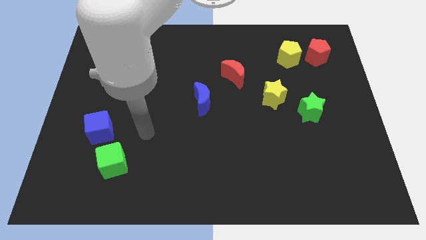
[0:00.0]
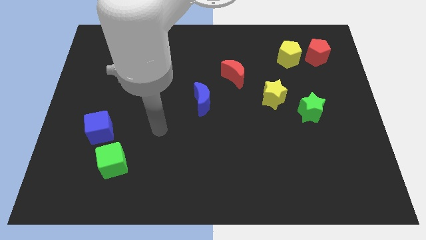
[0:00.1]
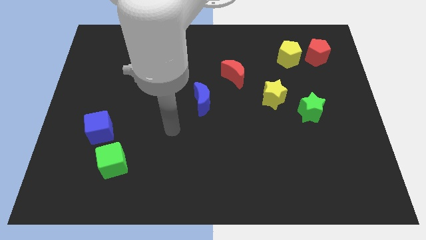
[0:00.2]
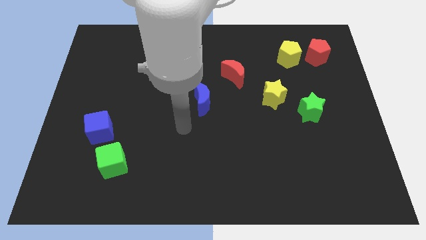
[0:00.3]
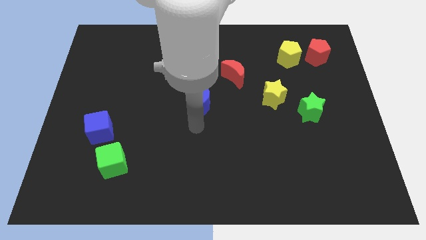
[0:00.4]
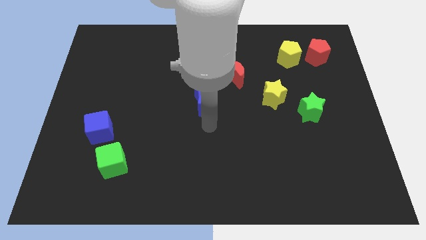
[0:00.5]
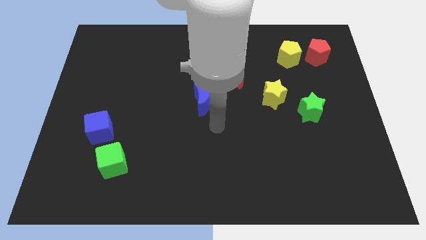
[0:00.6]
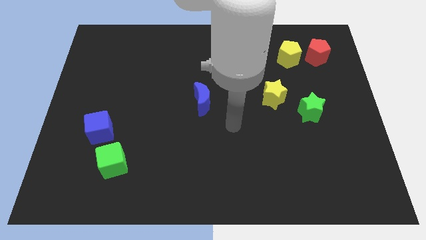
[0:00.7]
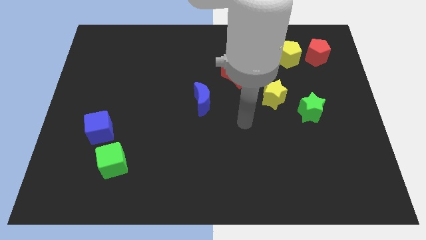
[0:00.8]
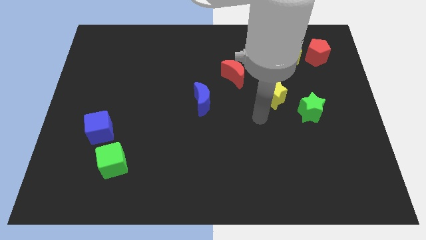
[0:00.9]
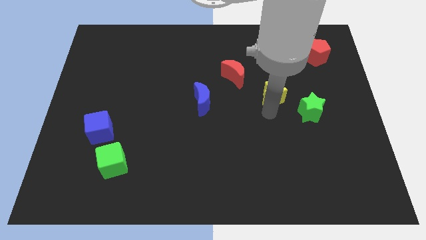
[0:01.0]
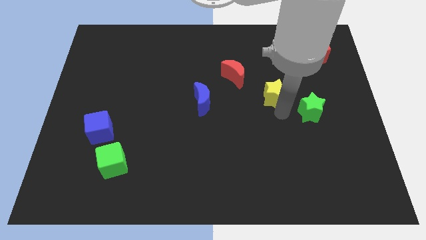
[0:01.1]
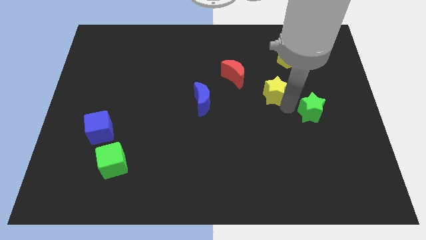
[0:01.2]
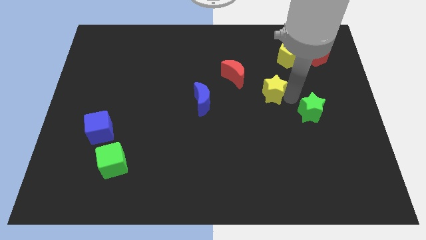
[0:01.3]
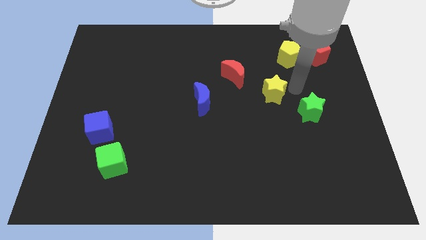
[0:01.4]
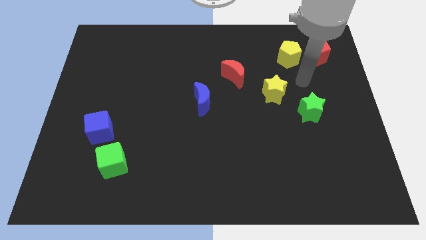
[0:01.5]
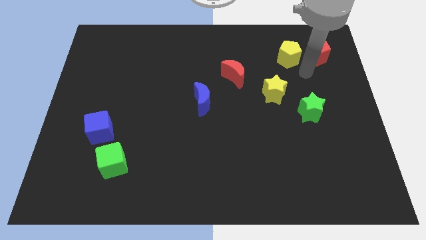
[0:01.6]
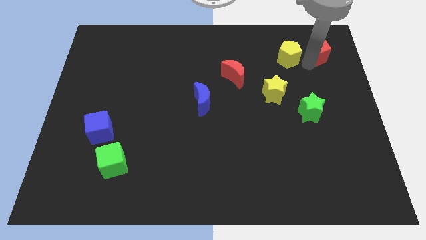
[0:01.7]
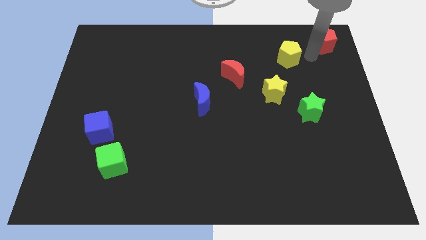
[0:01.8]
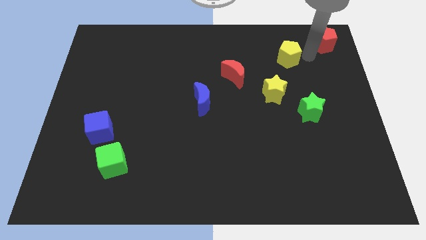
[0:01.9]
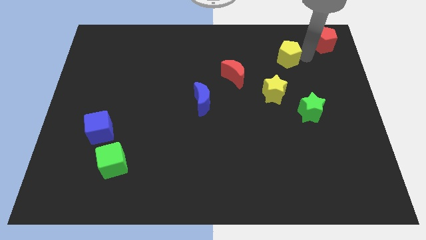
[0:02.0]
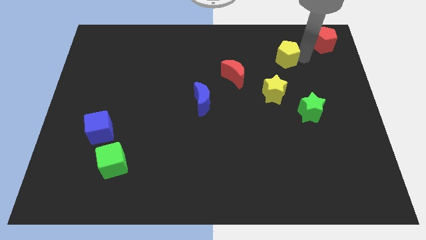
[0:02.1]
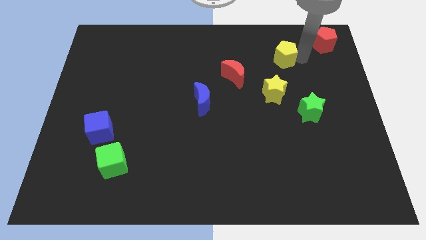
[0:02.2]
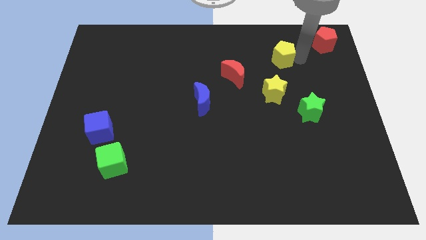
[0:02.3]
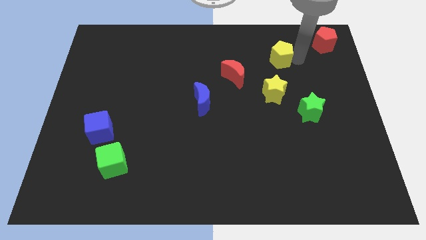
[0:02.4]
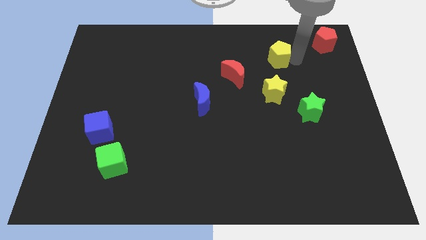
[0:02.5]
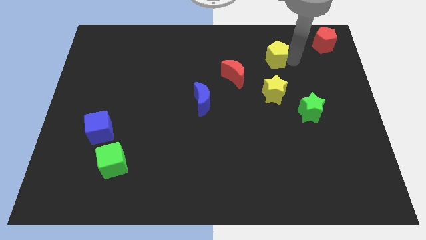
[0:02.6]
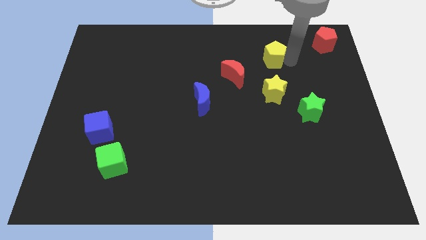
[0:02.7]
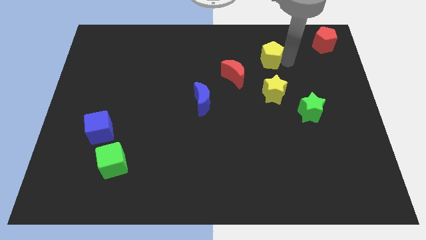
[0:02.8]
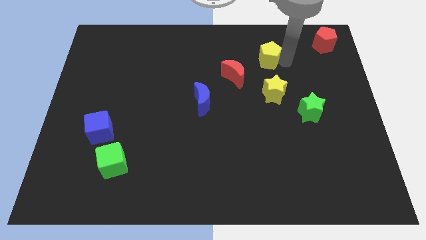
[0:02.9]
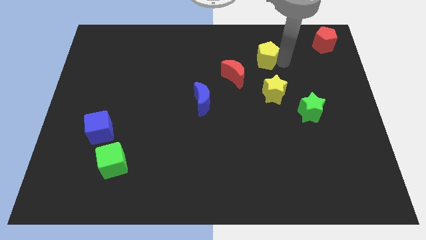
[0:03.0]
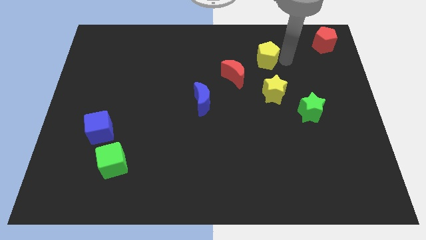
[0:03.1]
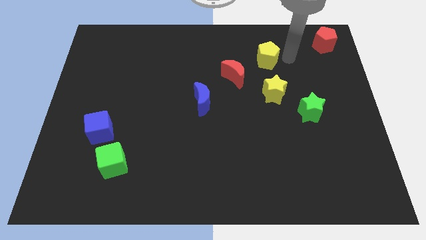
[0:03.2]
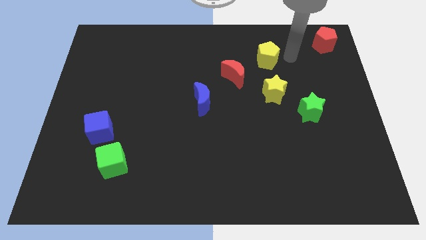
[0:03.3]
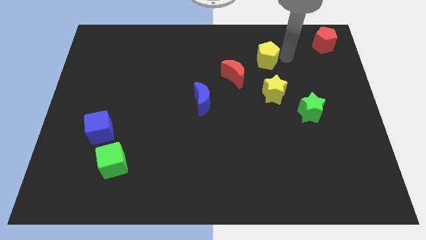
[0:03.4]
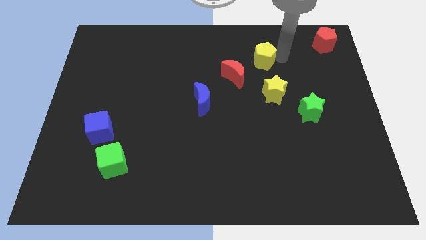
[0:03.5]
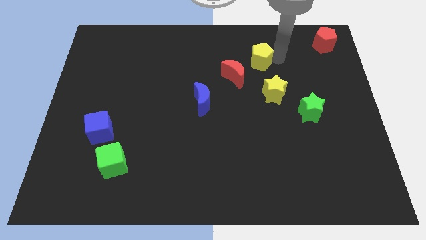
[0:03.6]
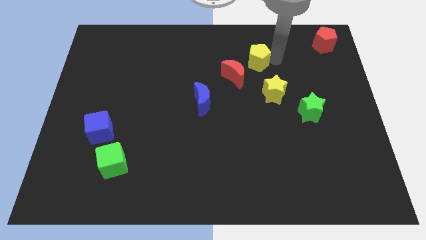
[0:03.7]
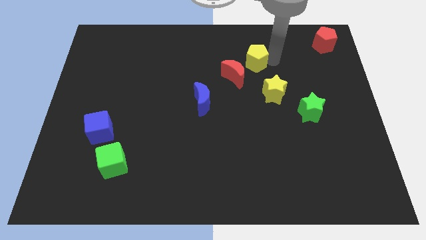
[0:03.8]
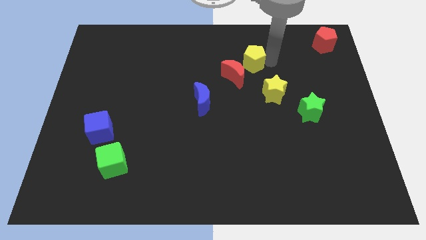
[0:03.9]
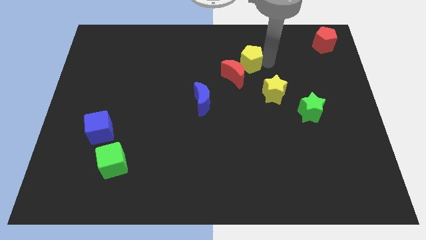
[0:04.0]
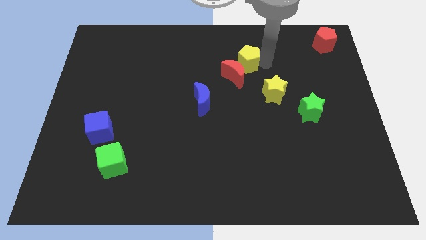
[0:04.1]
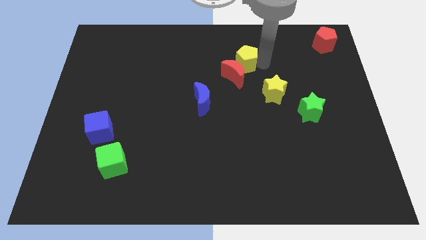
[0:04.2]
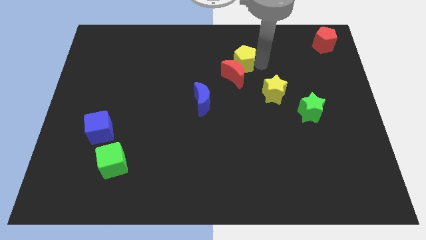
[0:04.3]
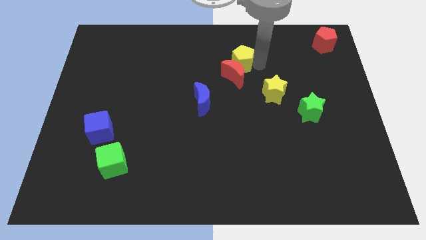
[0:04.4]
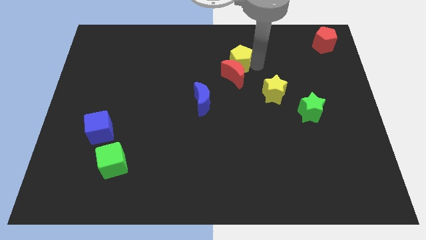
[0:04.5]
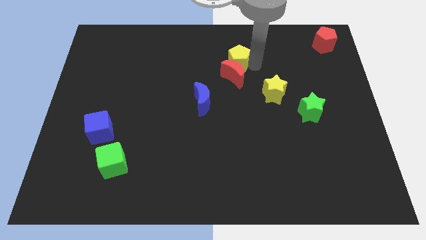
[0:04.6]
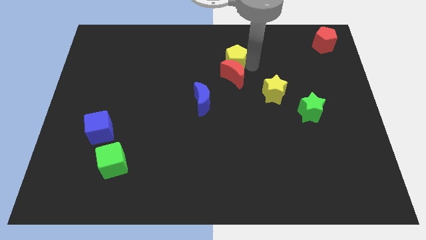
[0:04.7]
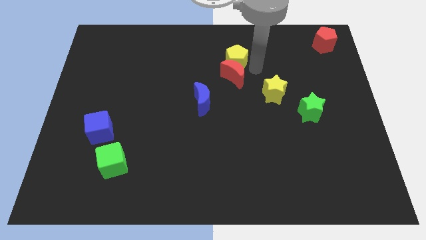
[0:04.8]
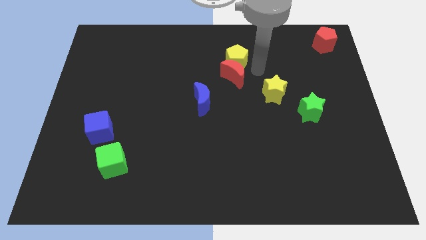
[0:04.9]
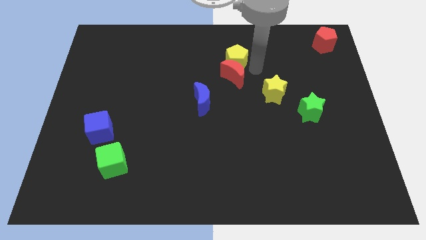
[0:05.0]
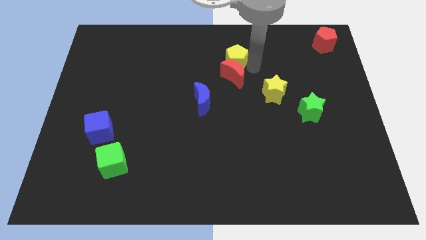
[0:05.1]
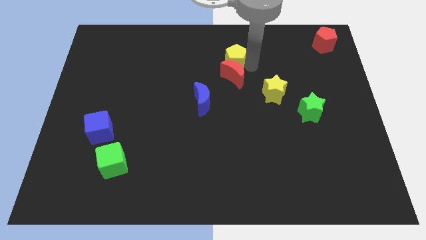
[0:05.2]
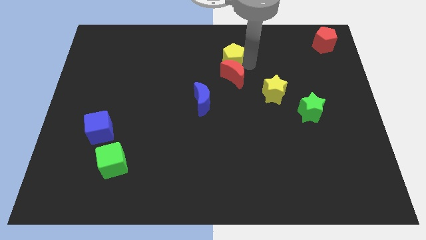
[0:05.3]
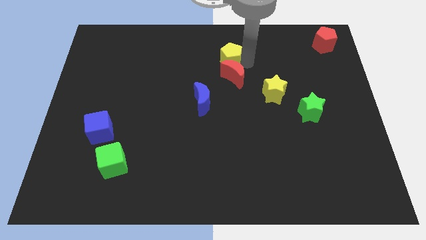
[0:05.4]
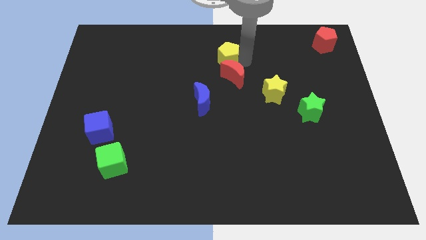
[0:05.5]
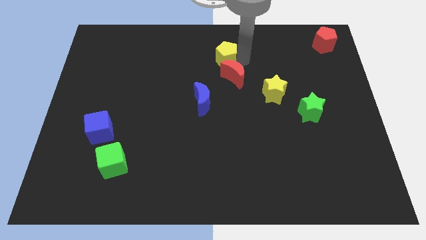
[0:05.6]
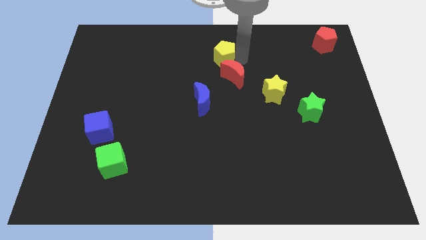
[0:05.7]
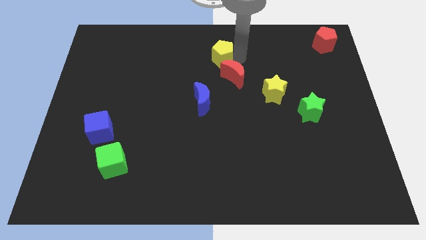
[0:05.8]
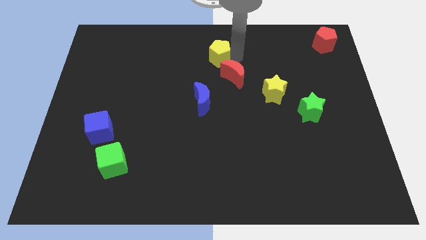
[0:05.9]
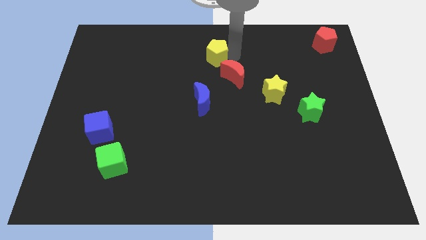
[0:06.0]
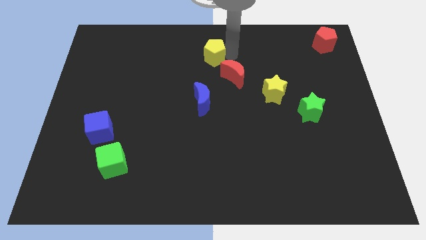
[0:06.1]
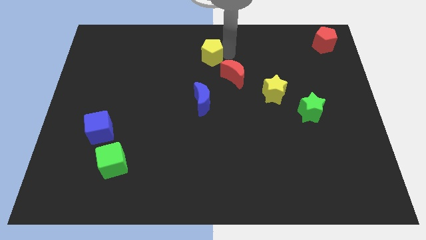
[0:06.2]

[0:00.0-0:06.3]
move the yellow pentagon left

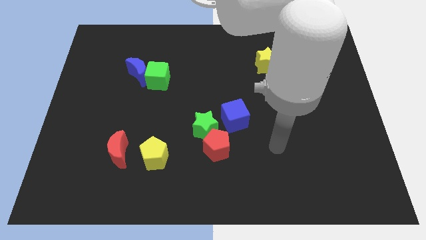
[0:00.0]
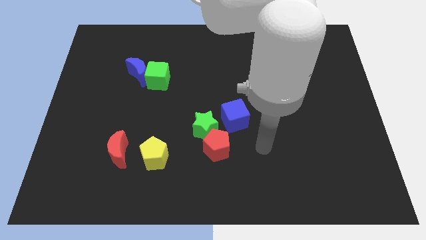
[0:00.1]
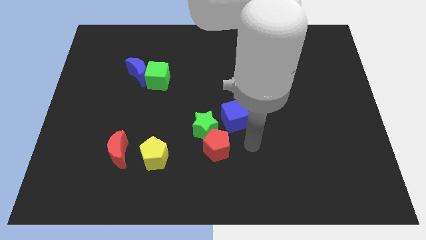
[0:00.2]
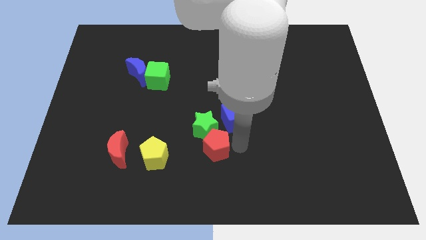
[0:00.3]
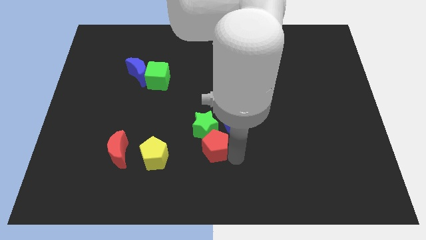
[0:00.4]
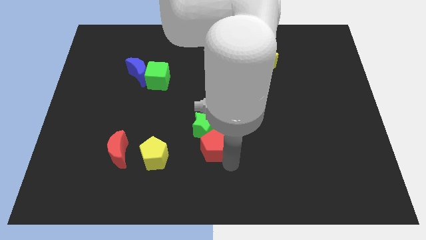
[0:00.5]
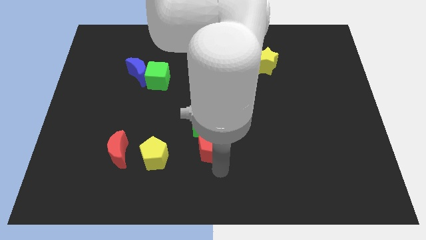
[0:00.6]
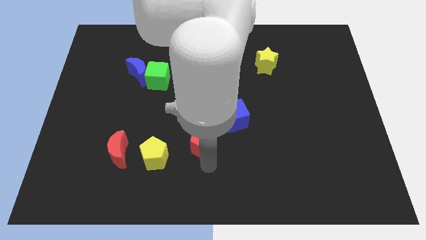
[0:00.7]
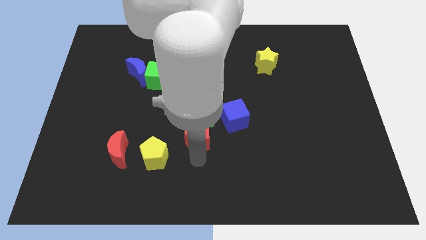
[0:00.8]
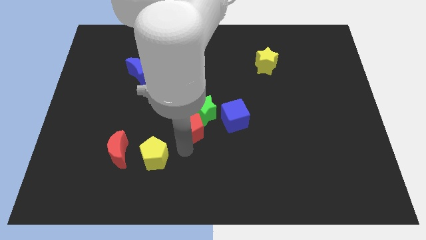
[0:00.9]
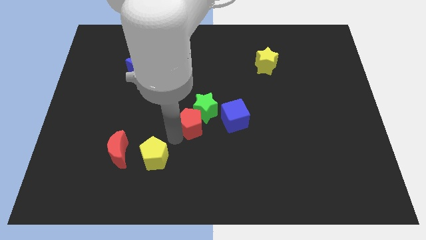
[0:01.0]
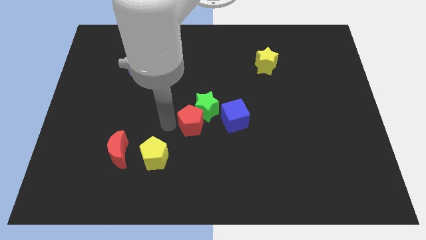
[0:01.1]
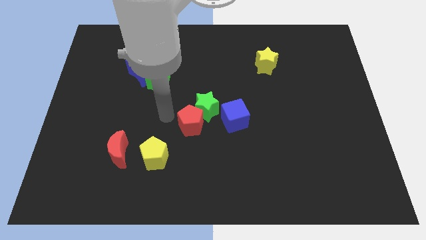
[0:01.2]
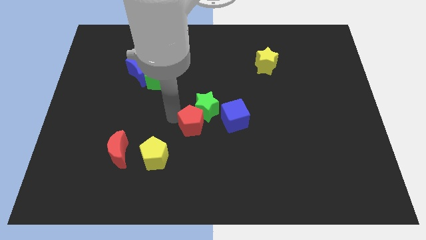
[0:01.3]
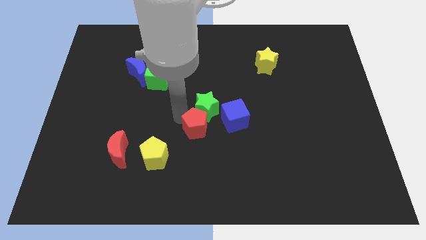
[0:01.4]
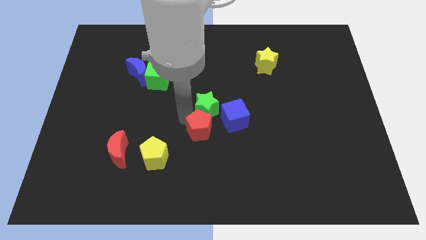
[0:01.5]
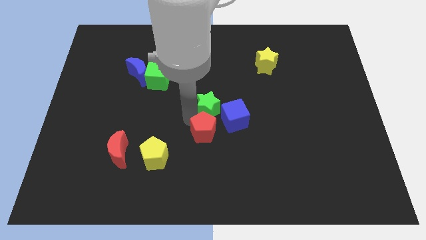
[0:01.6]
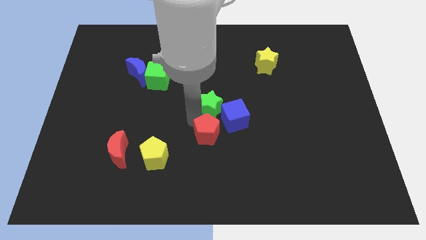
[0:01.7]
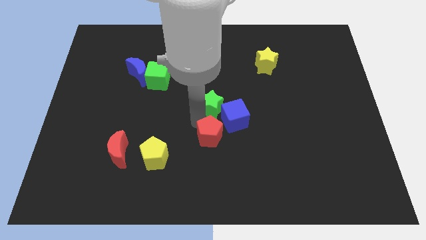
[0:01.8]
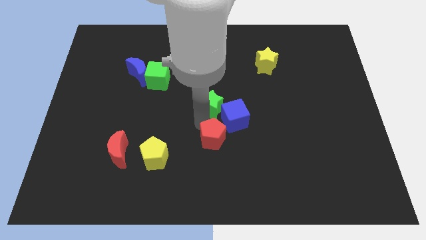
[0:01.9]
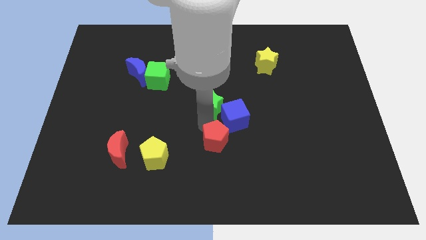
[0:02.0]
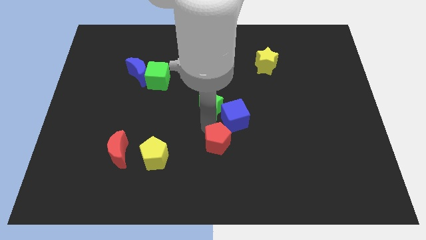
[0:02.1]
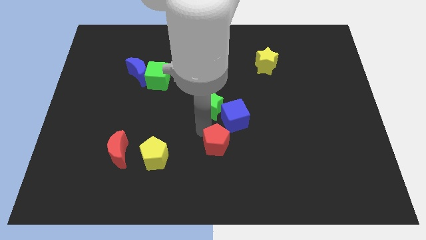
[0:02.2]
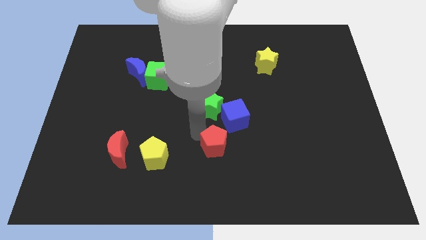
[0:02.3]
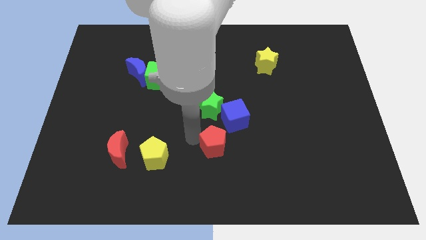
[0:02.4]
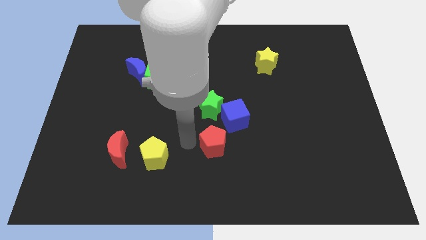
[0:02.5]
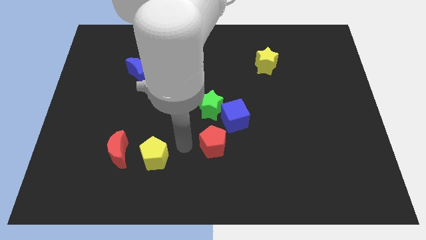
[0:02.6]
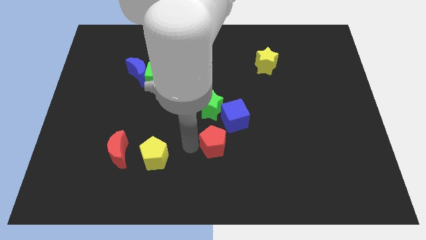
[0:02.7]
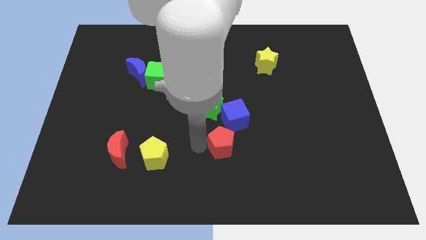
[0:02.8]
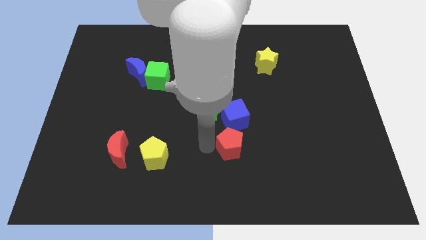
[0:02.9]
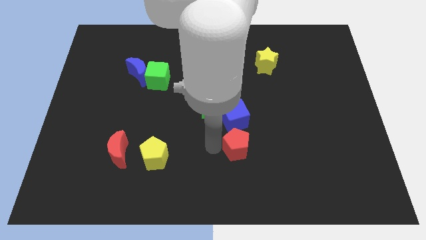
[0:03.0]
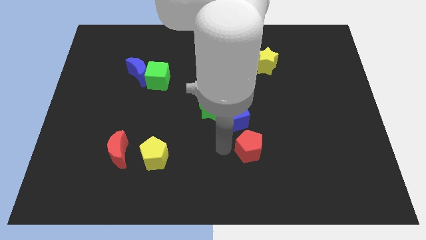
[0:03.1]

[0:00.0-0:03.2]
slightly push the red pentagon to the right
